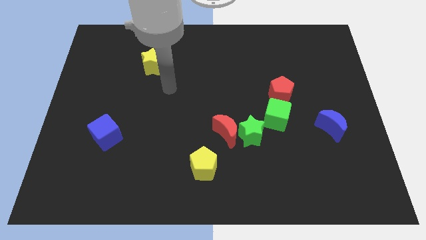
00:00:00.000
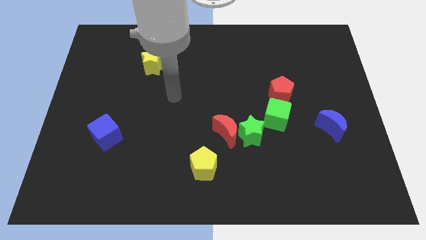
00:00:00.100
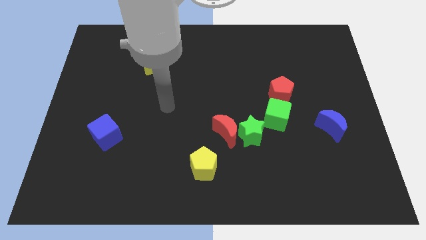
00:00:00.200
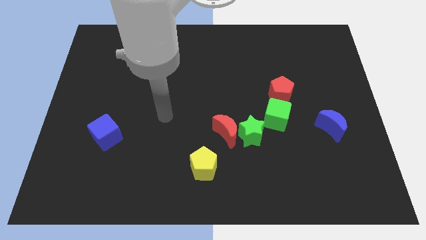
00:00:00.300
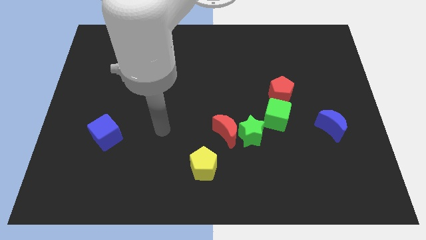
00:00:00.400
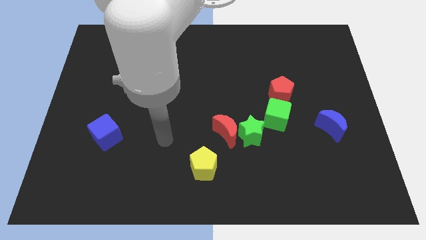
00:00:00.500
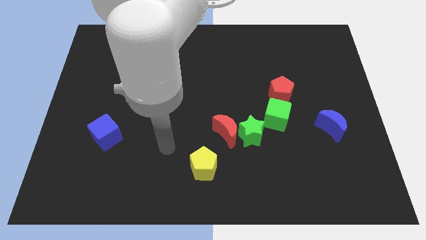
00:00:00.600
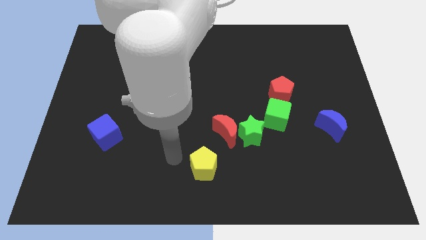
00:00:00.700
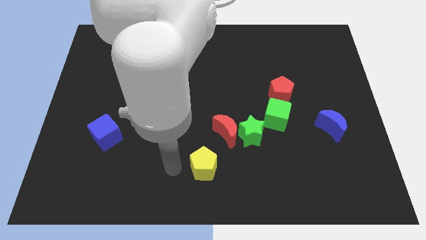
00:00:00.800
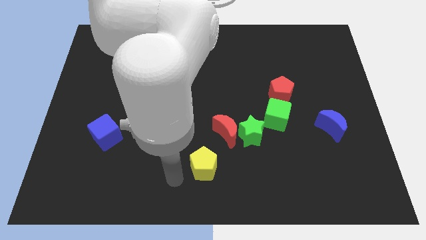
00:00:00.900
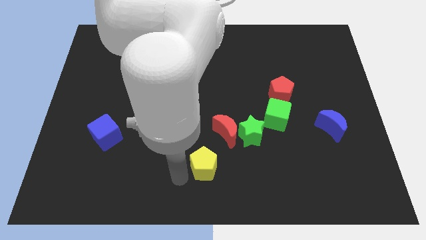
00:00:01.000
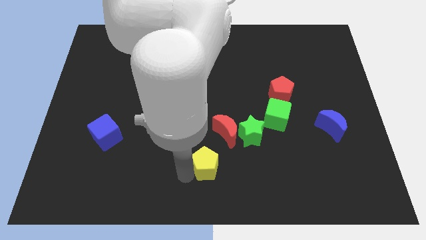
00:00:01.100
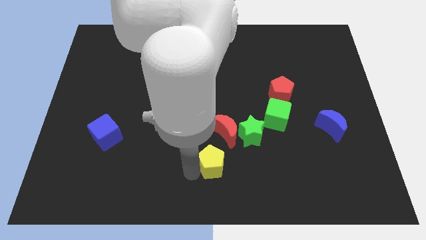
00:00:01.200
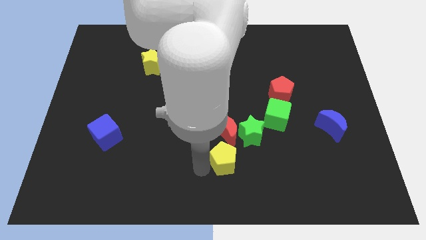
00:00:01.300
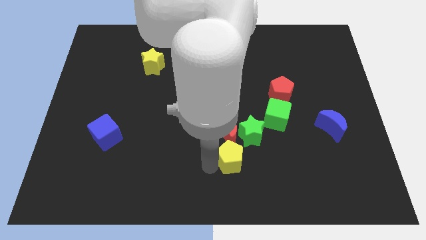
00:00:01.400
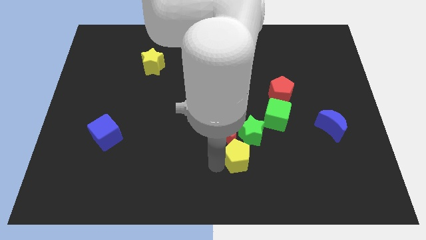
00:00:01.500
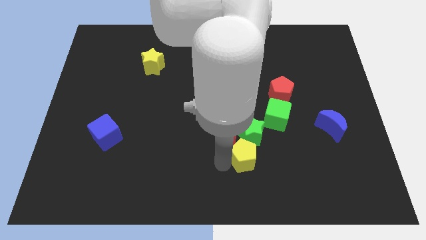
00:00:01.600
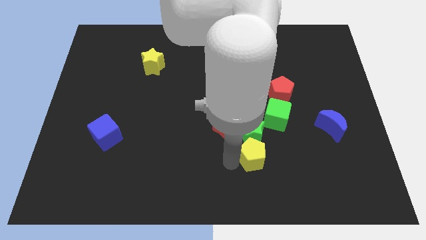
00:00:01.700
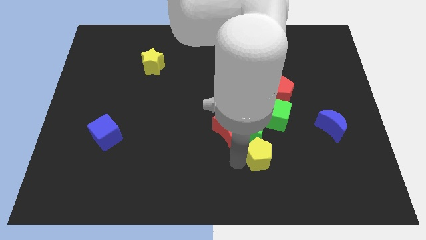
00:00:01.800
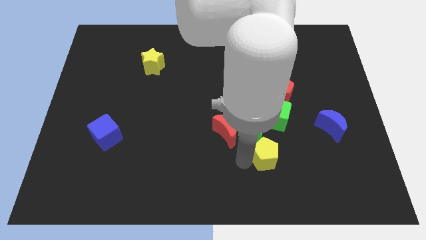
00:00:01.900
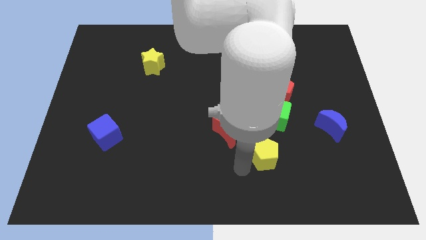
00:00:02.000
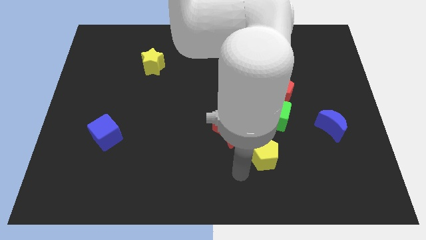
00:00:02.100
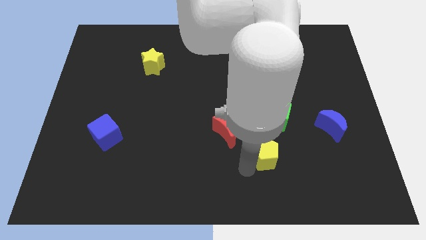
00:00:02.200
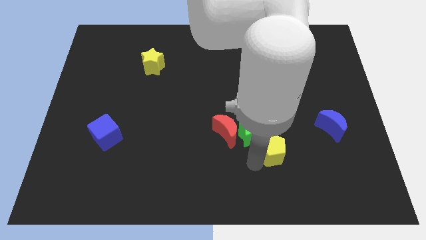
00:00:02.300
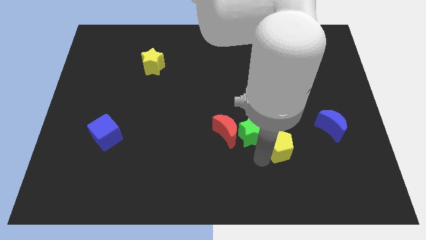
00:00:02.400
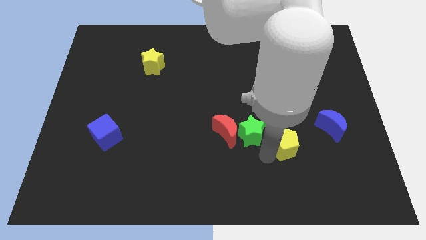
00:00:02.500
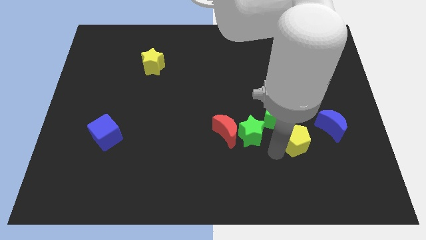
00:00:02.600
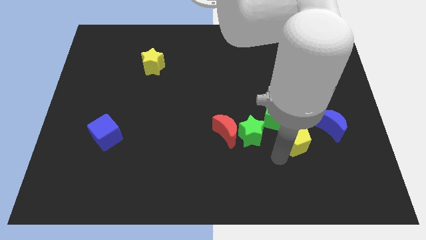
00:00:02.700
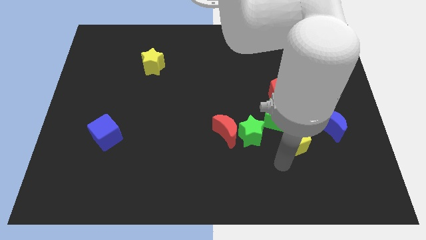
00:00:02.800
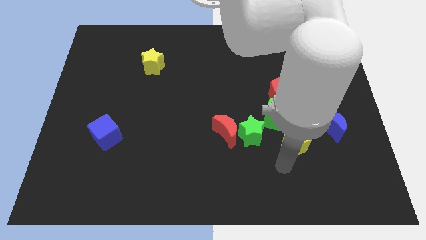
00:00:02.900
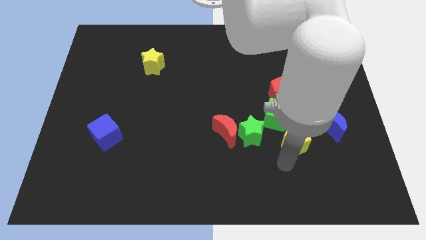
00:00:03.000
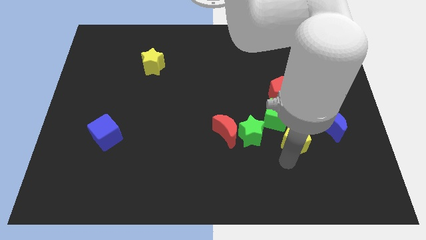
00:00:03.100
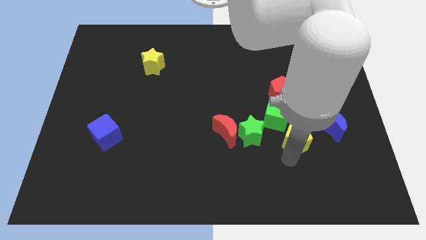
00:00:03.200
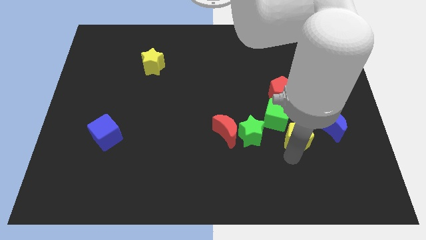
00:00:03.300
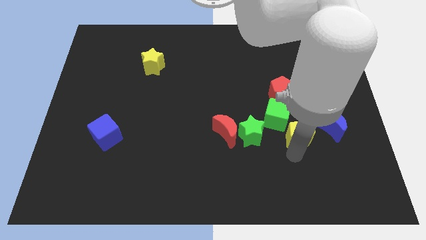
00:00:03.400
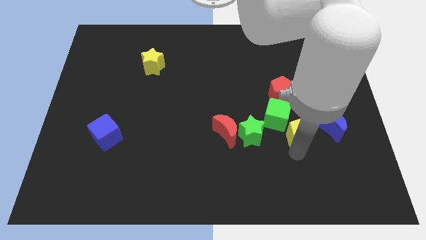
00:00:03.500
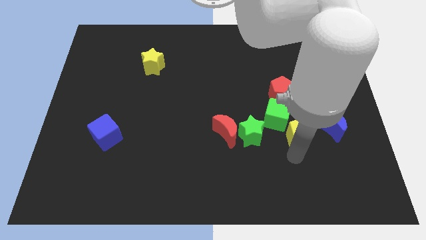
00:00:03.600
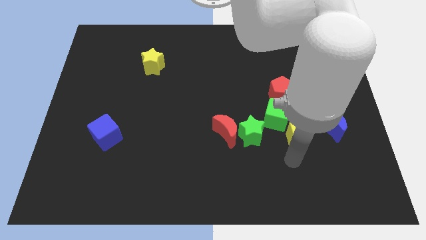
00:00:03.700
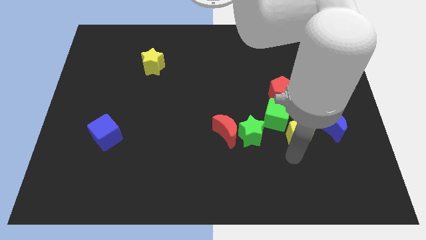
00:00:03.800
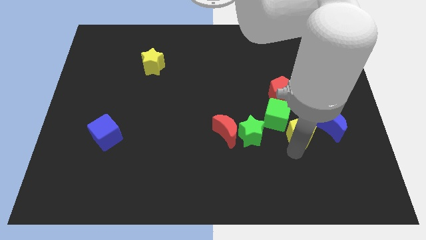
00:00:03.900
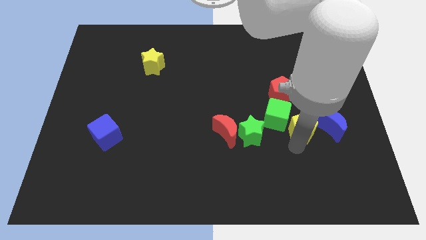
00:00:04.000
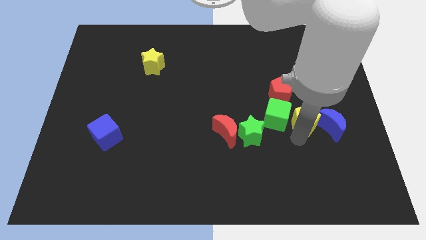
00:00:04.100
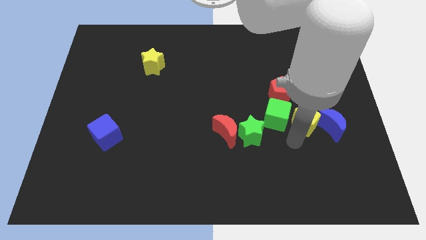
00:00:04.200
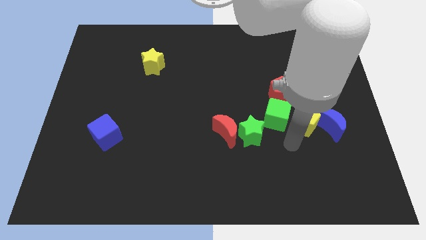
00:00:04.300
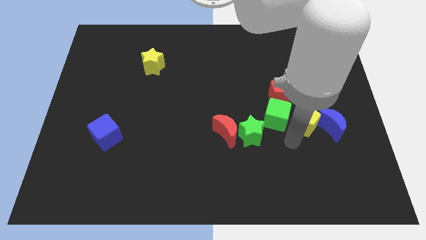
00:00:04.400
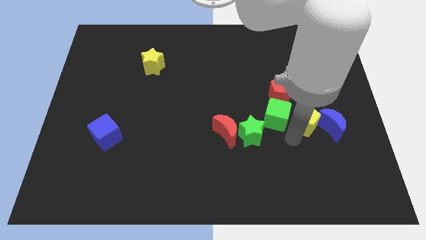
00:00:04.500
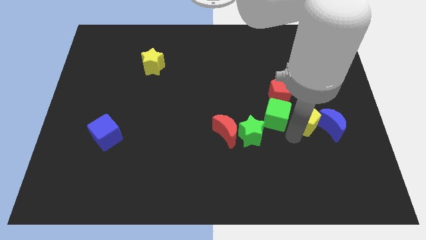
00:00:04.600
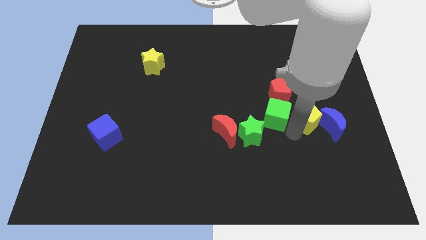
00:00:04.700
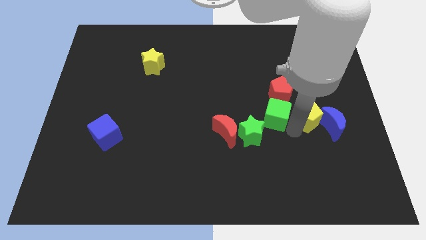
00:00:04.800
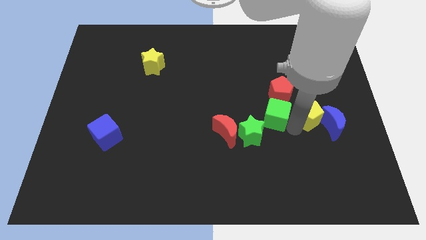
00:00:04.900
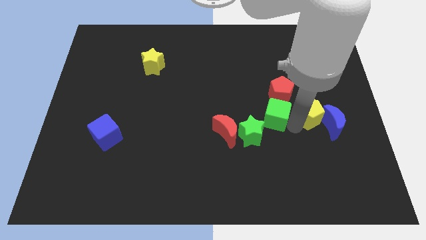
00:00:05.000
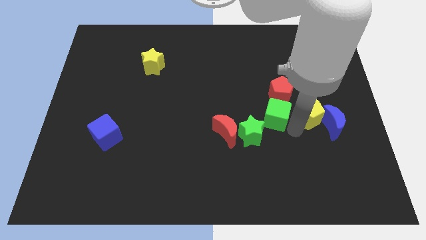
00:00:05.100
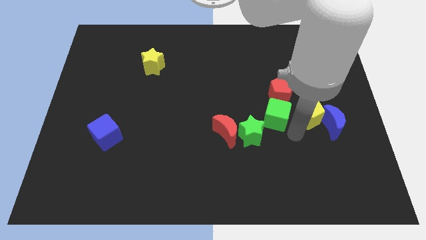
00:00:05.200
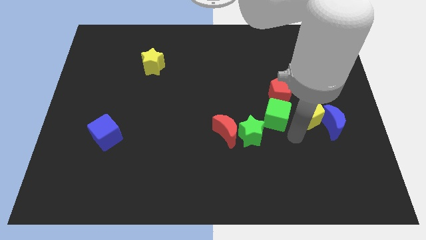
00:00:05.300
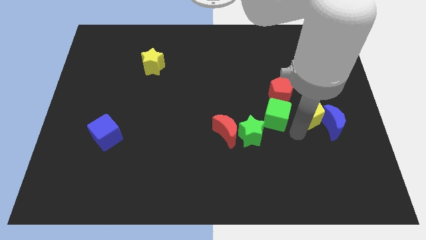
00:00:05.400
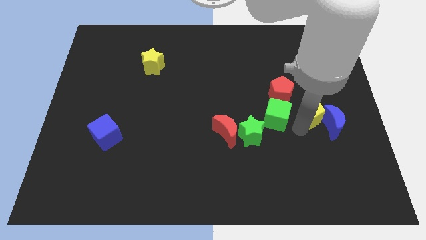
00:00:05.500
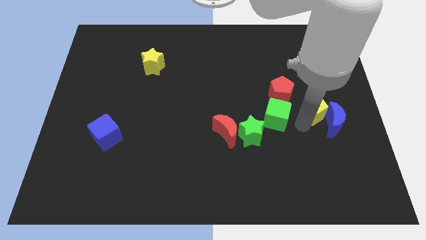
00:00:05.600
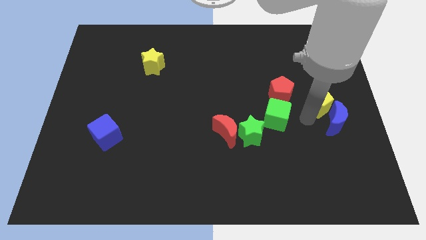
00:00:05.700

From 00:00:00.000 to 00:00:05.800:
move the yellow pentagon to the top side of the blue moon

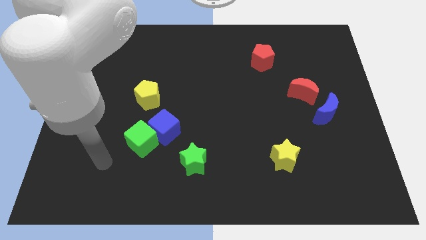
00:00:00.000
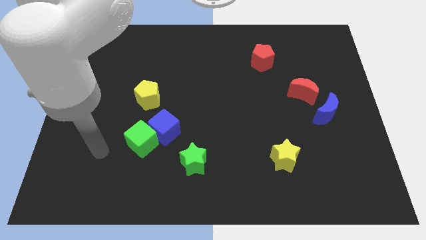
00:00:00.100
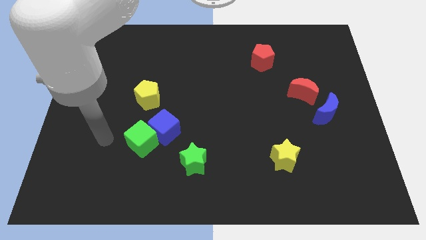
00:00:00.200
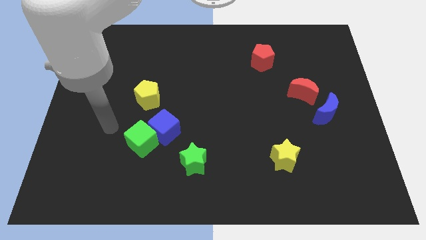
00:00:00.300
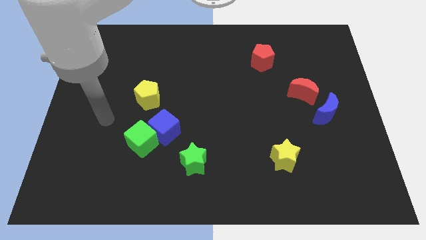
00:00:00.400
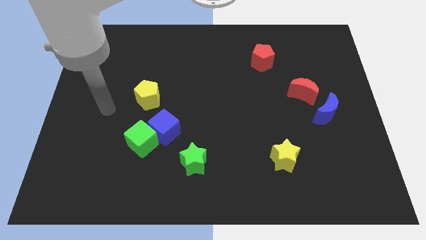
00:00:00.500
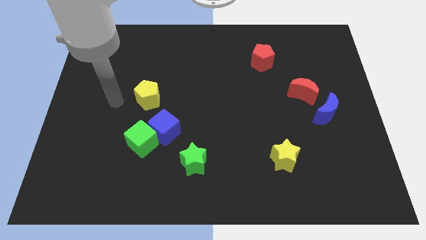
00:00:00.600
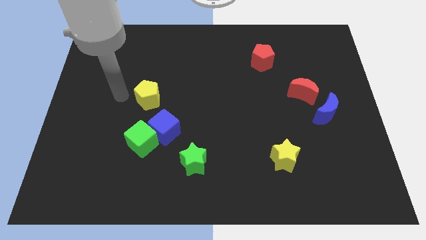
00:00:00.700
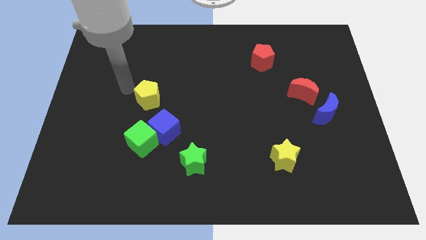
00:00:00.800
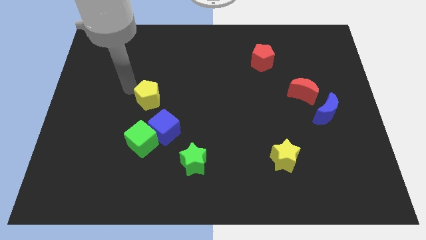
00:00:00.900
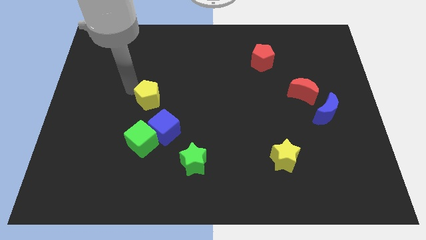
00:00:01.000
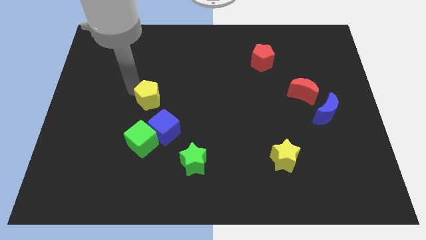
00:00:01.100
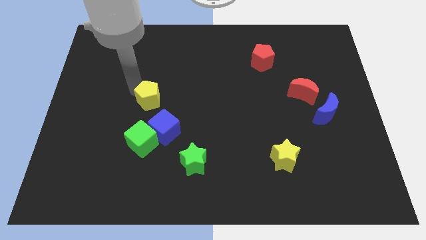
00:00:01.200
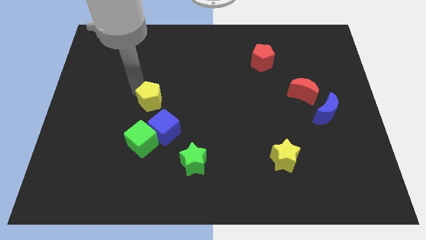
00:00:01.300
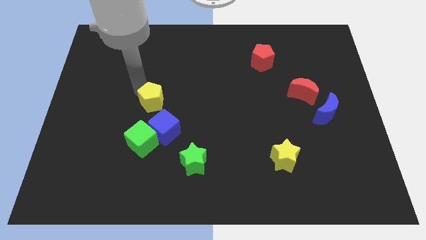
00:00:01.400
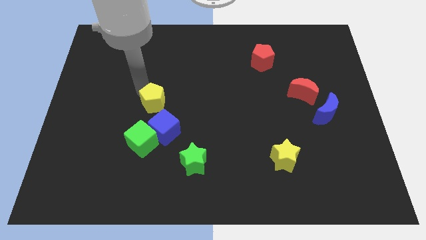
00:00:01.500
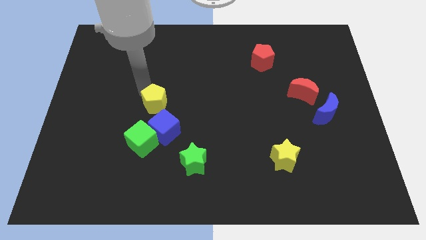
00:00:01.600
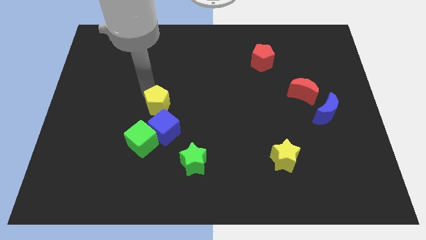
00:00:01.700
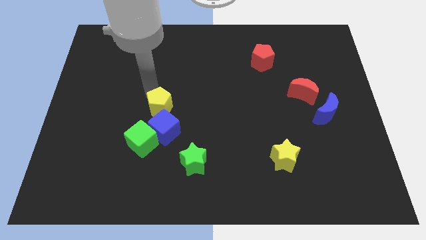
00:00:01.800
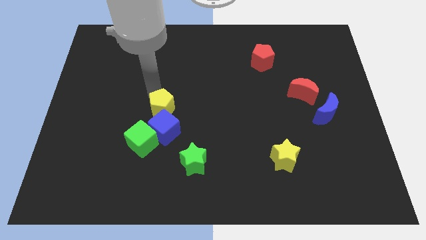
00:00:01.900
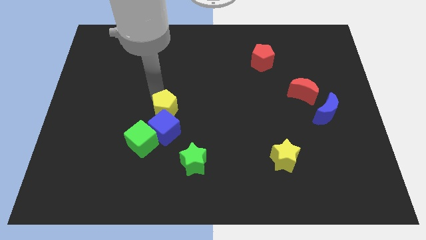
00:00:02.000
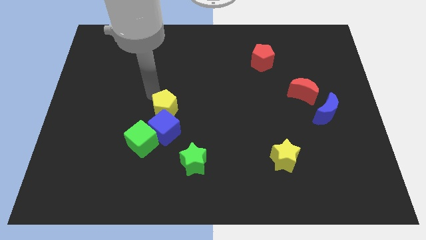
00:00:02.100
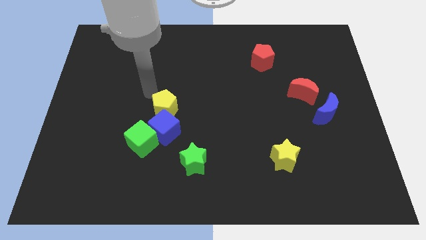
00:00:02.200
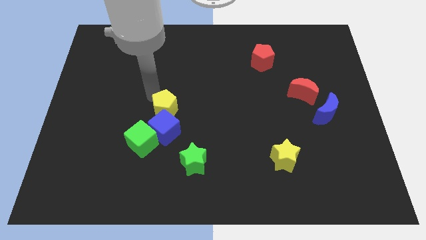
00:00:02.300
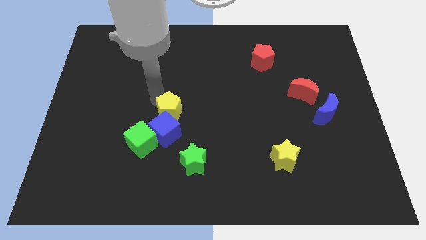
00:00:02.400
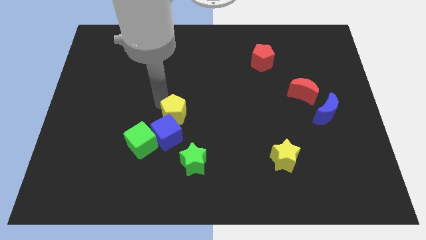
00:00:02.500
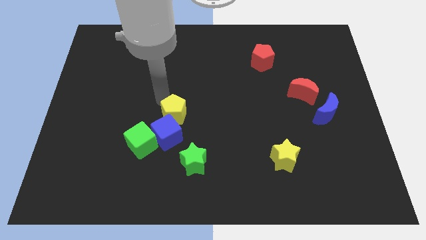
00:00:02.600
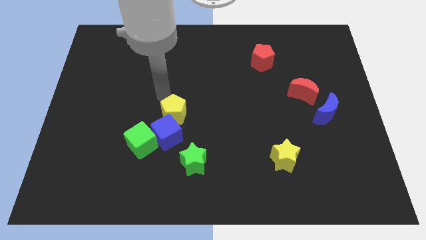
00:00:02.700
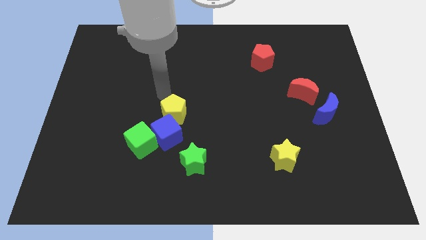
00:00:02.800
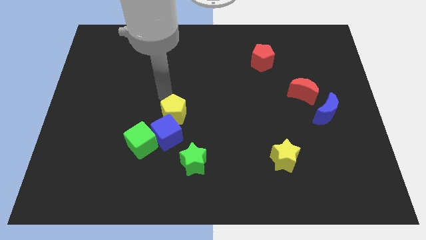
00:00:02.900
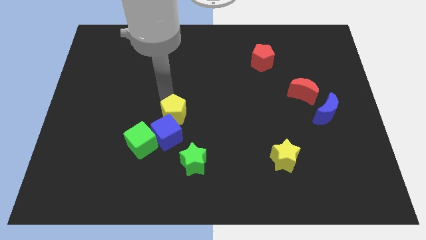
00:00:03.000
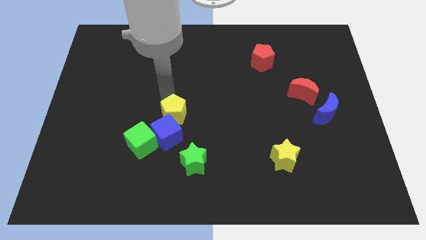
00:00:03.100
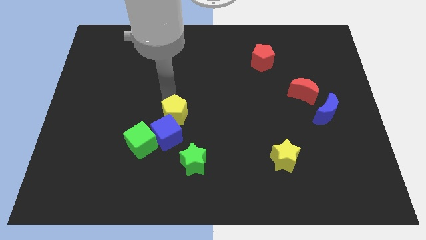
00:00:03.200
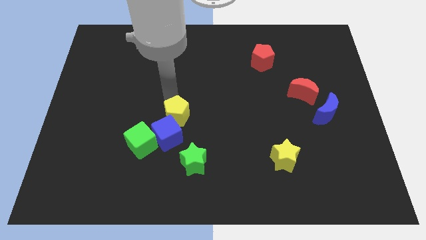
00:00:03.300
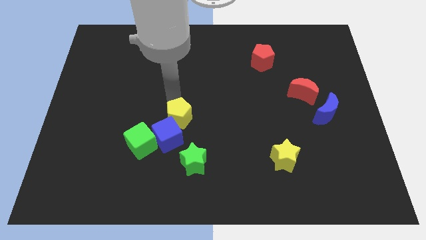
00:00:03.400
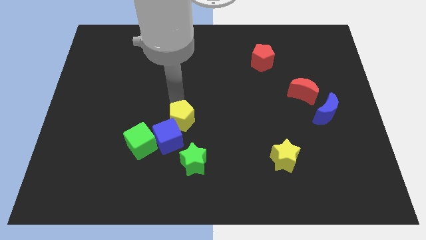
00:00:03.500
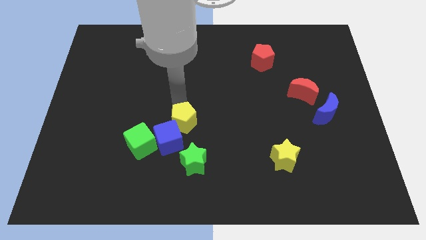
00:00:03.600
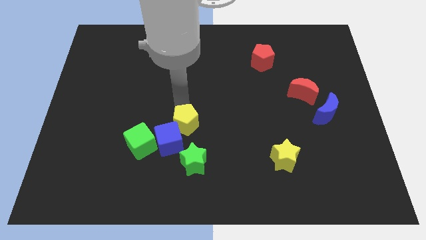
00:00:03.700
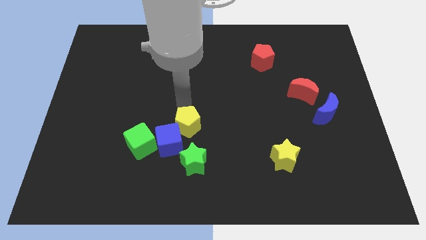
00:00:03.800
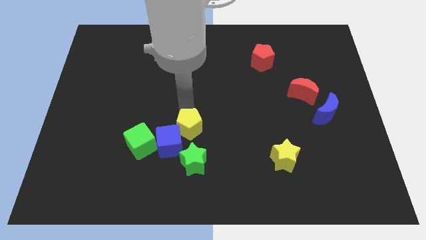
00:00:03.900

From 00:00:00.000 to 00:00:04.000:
push the yellow pentagon to the right of the green cube
